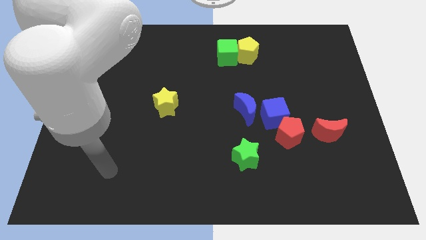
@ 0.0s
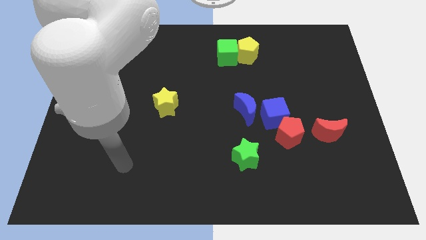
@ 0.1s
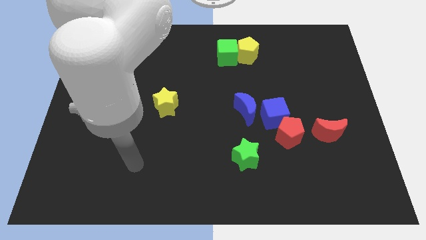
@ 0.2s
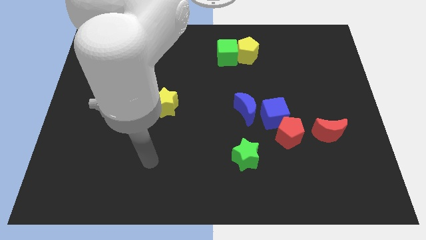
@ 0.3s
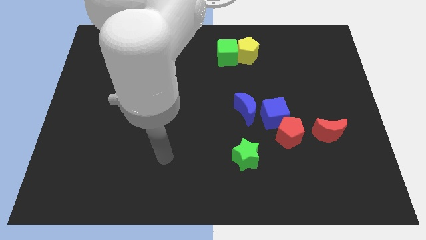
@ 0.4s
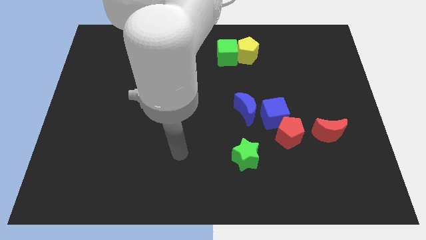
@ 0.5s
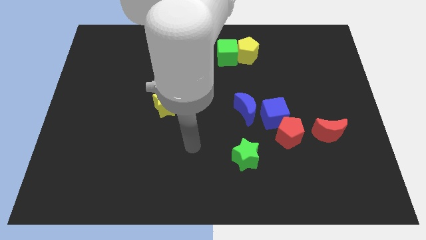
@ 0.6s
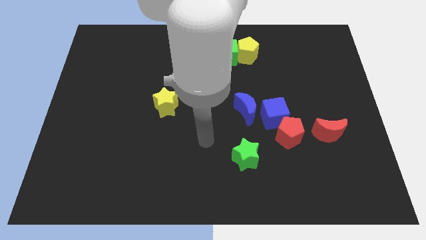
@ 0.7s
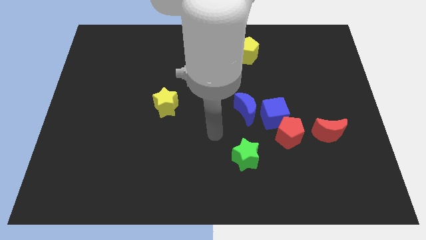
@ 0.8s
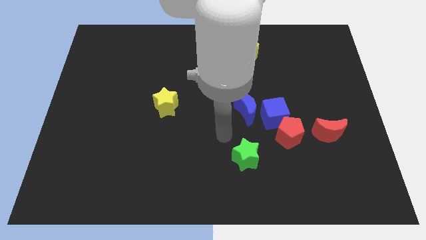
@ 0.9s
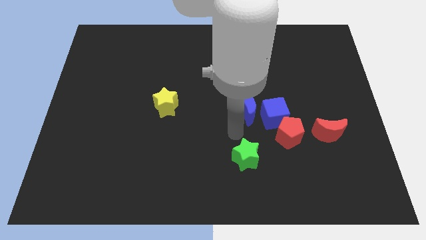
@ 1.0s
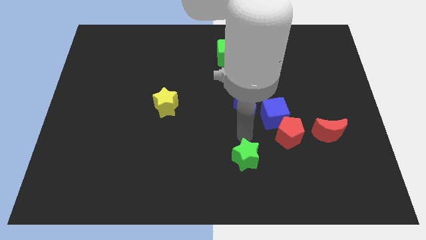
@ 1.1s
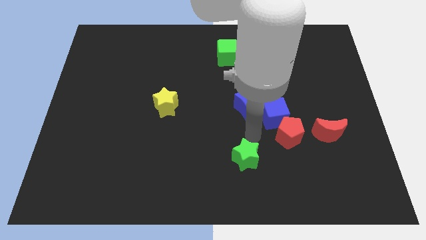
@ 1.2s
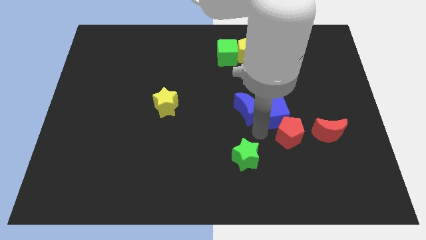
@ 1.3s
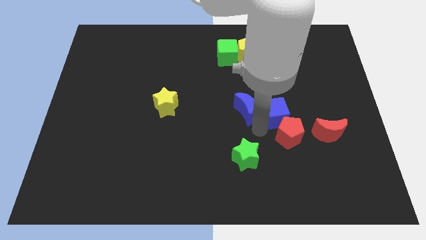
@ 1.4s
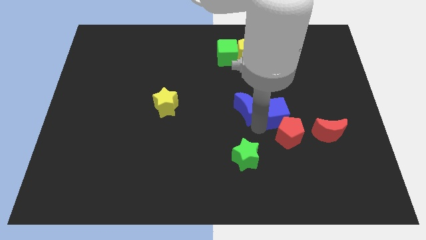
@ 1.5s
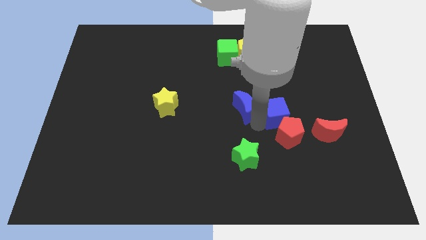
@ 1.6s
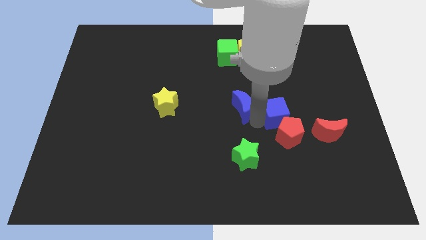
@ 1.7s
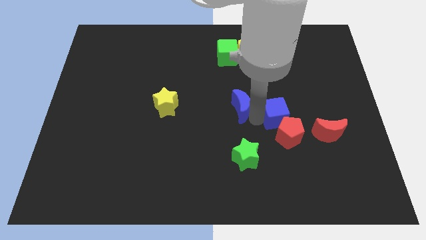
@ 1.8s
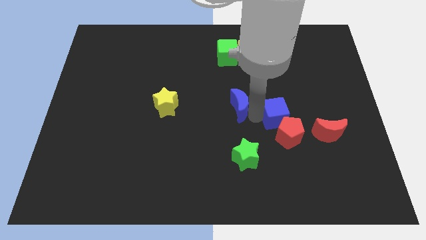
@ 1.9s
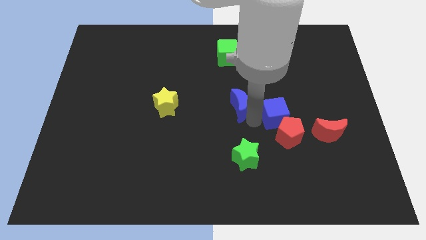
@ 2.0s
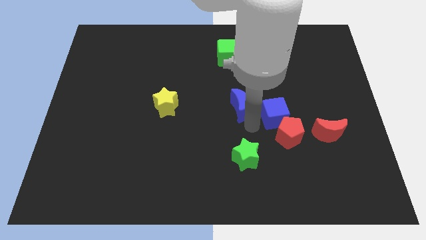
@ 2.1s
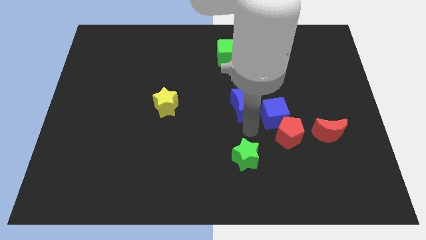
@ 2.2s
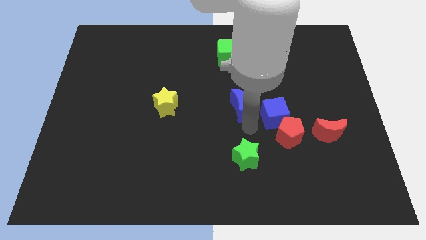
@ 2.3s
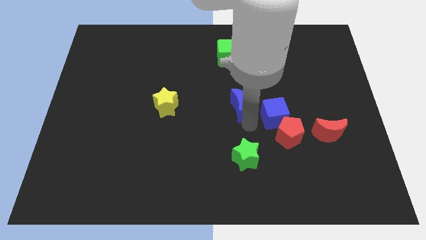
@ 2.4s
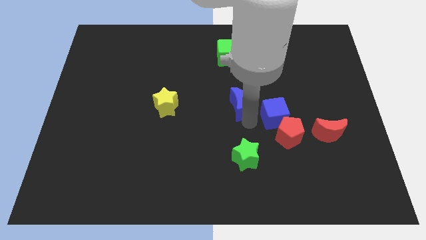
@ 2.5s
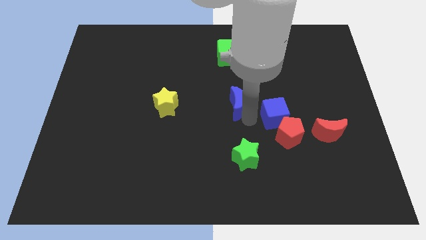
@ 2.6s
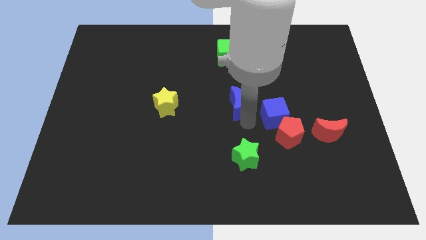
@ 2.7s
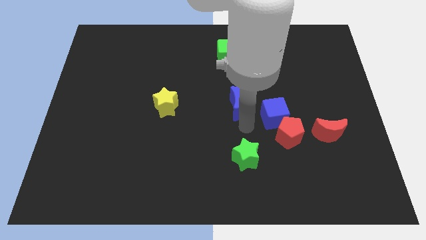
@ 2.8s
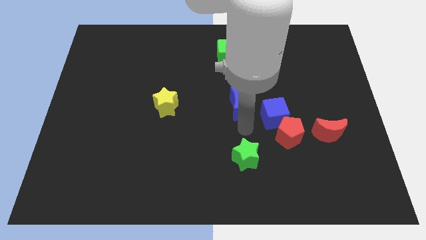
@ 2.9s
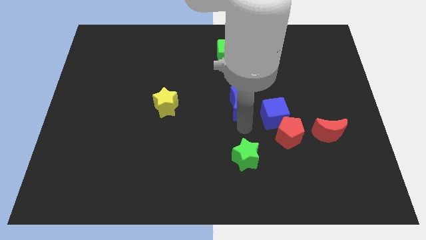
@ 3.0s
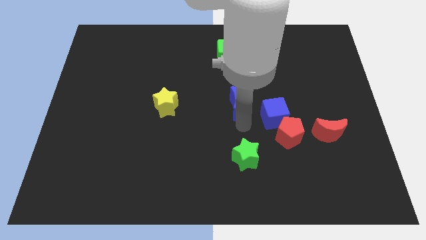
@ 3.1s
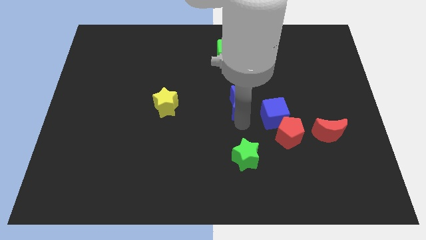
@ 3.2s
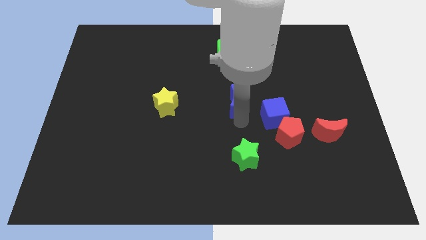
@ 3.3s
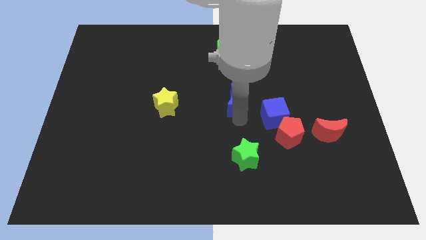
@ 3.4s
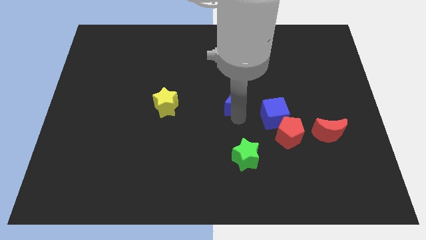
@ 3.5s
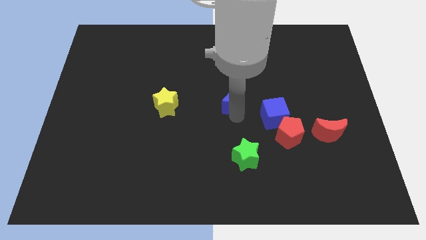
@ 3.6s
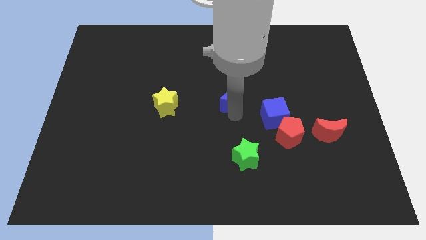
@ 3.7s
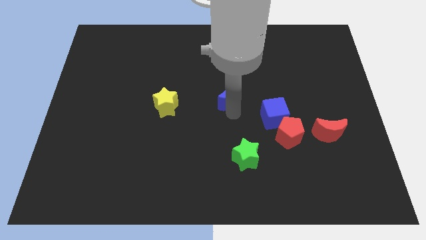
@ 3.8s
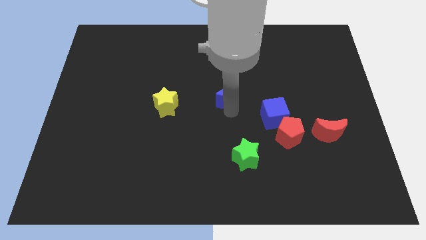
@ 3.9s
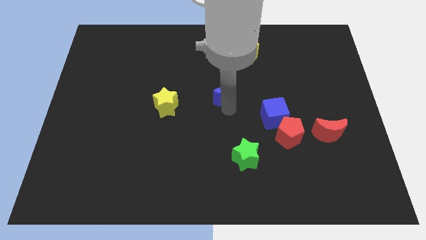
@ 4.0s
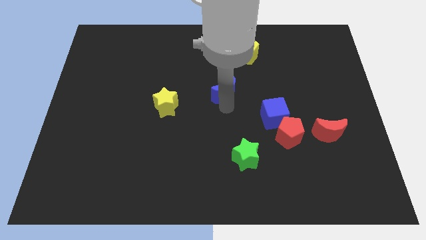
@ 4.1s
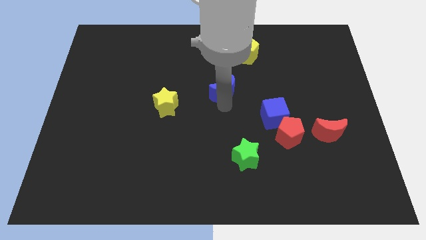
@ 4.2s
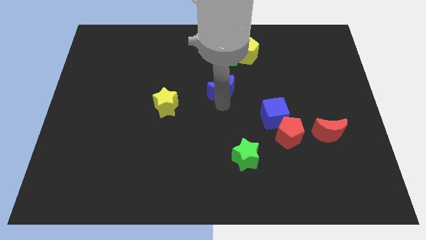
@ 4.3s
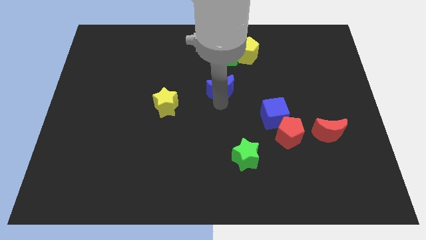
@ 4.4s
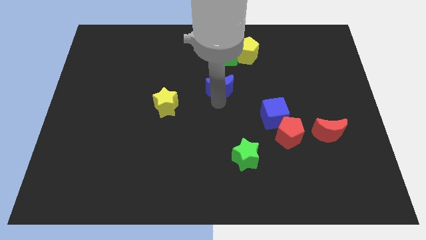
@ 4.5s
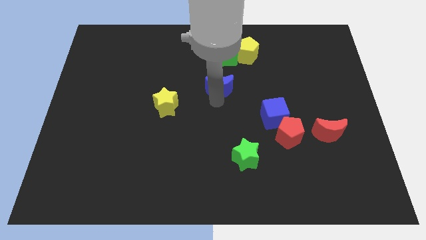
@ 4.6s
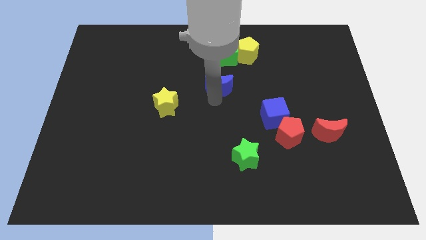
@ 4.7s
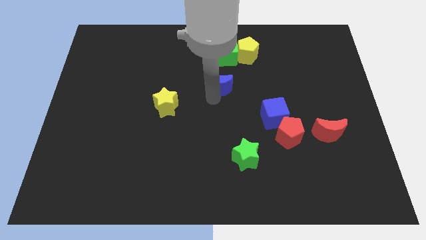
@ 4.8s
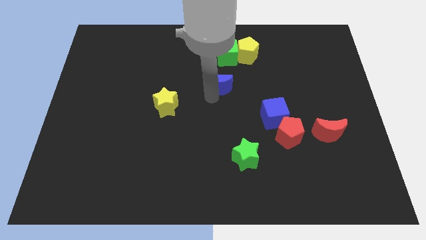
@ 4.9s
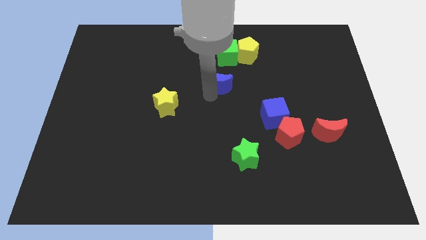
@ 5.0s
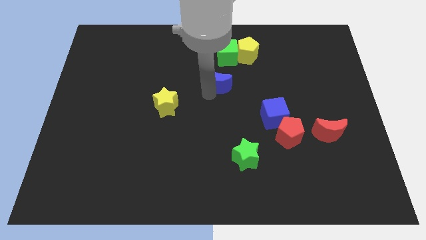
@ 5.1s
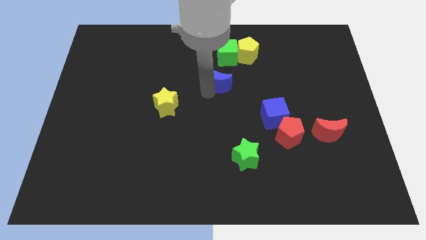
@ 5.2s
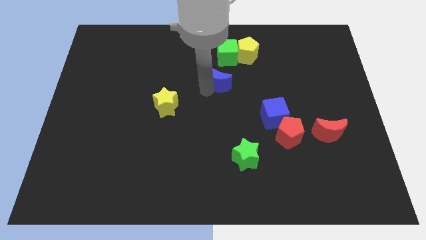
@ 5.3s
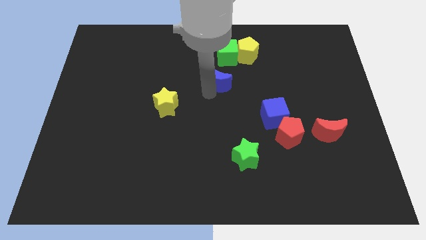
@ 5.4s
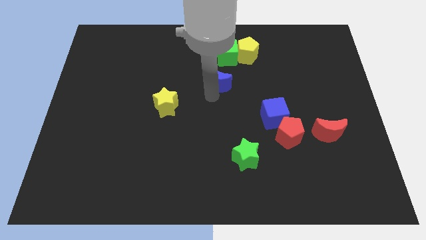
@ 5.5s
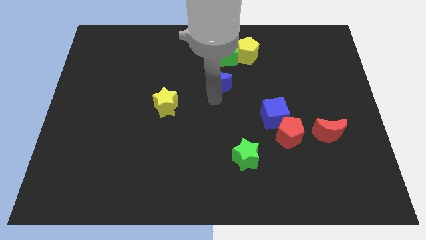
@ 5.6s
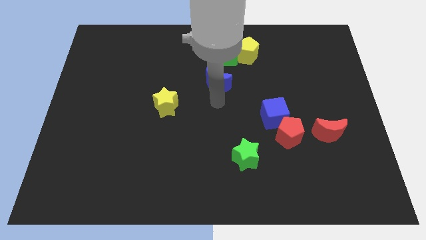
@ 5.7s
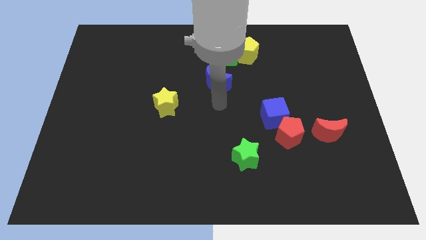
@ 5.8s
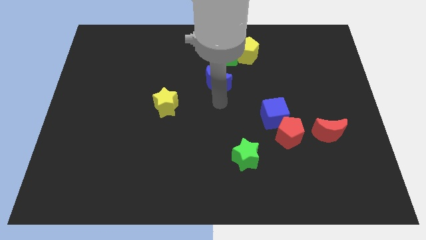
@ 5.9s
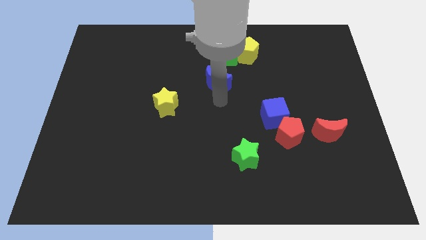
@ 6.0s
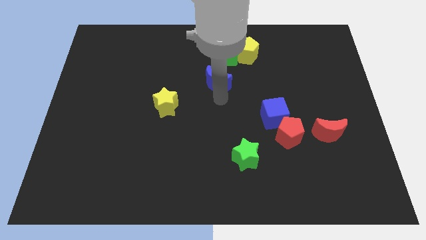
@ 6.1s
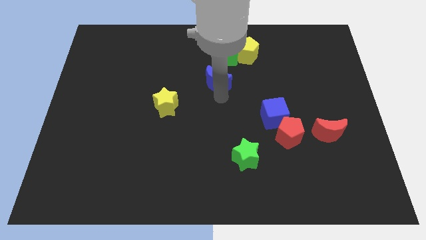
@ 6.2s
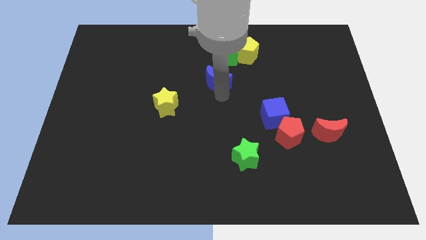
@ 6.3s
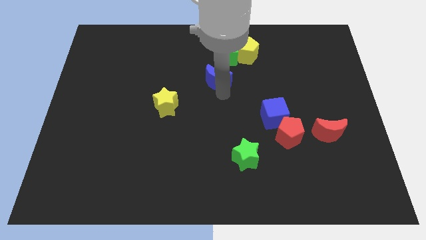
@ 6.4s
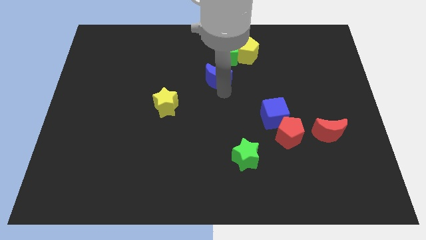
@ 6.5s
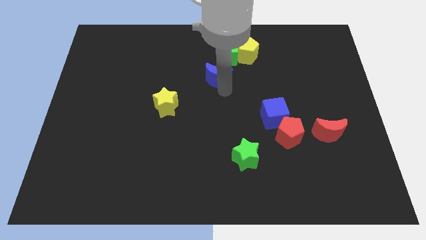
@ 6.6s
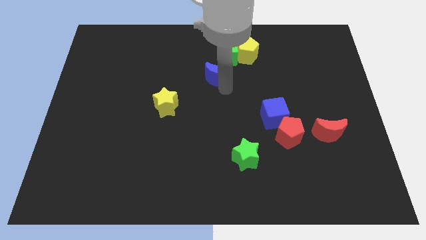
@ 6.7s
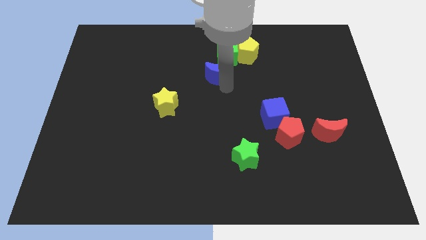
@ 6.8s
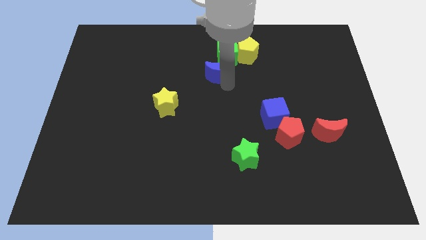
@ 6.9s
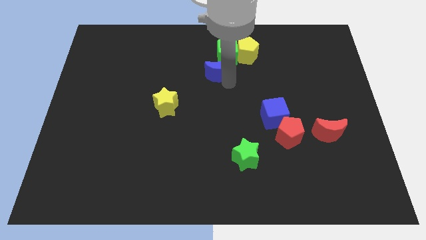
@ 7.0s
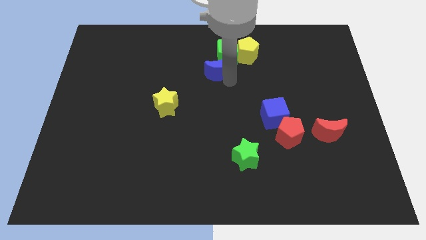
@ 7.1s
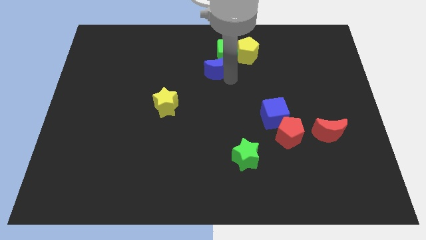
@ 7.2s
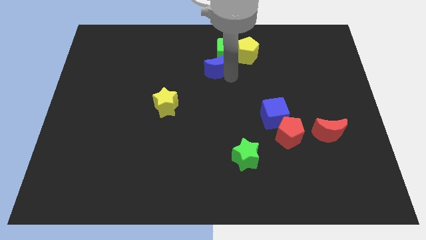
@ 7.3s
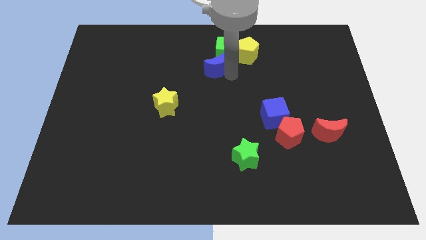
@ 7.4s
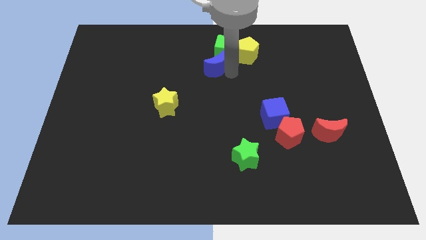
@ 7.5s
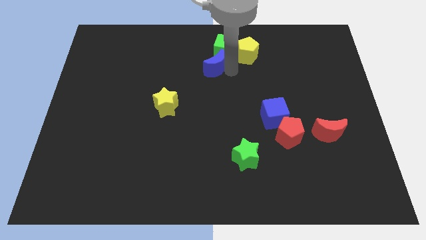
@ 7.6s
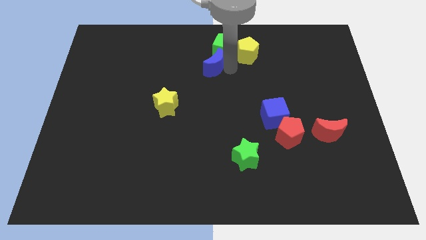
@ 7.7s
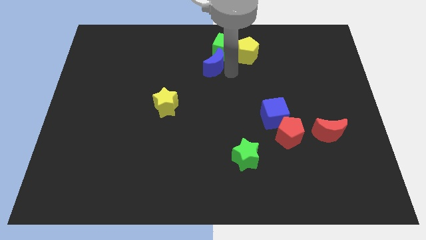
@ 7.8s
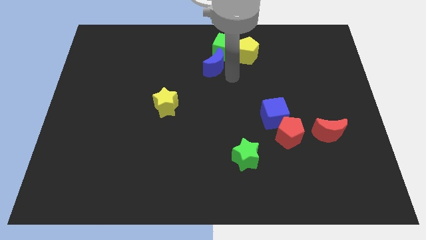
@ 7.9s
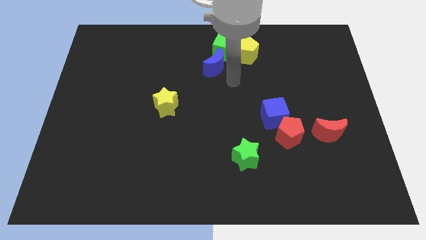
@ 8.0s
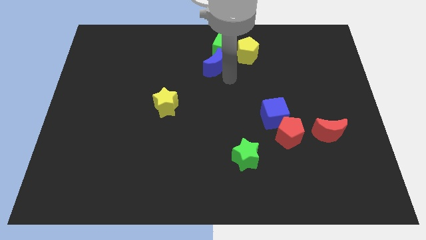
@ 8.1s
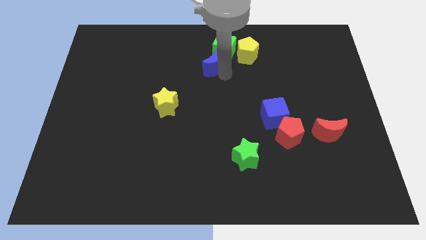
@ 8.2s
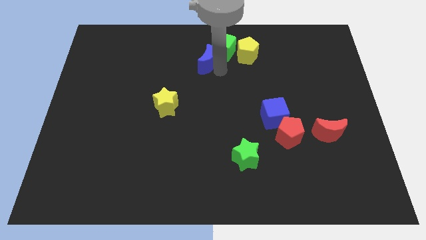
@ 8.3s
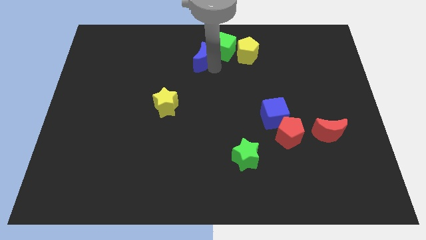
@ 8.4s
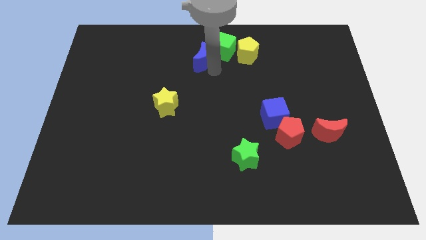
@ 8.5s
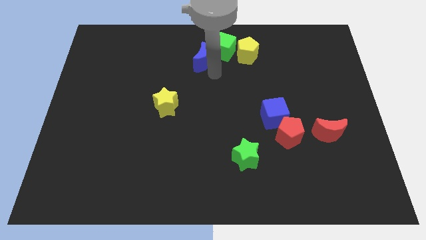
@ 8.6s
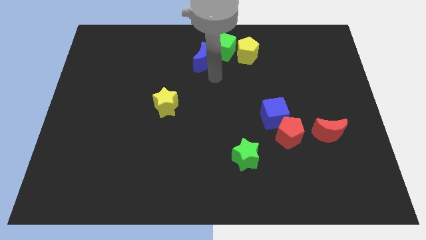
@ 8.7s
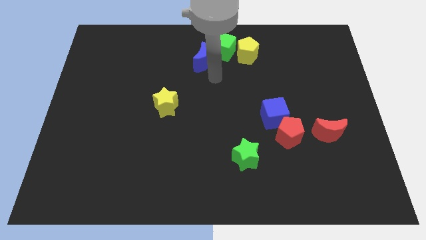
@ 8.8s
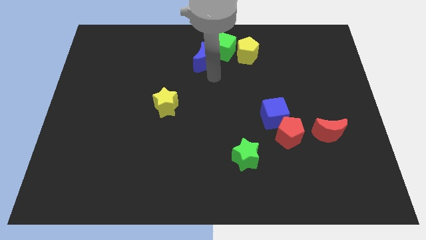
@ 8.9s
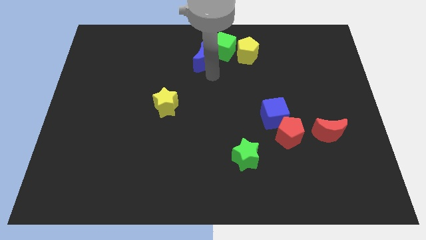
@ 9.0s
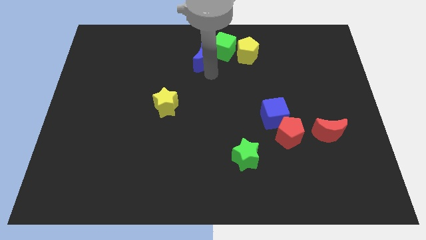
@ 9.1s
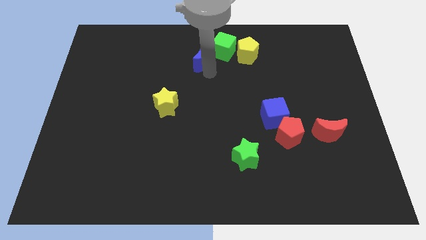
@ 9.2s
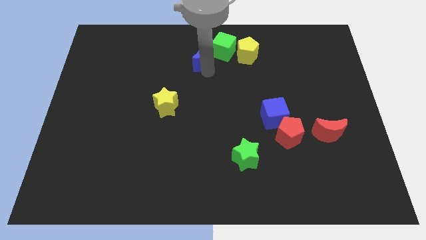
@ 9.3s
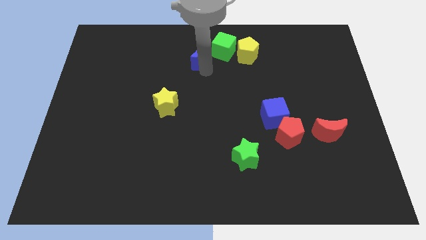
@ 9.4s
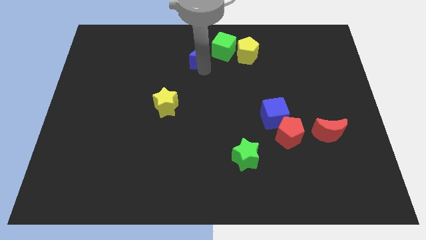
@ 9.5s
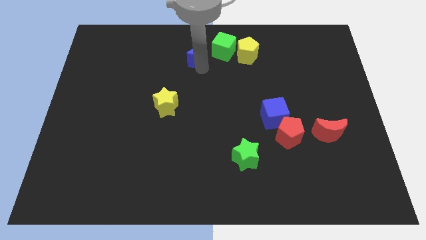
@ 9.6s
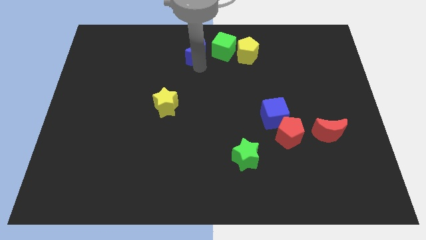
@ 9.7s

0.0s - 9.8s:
put the blue moon to the towards your base
